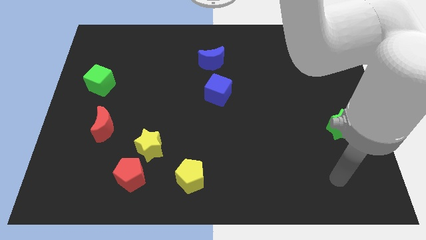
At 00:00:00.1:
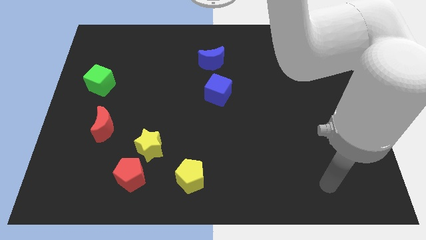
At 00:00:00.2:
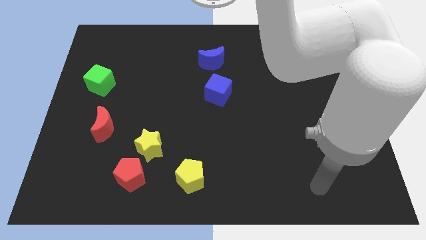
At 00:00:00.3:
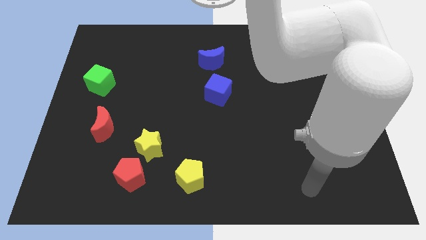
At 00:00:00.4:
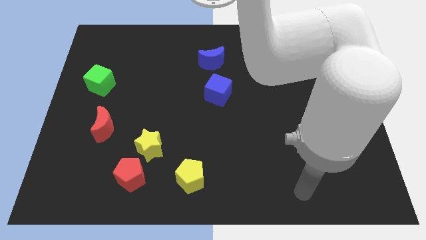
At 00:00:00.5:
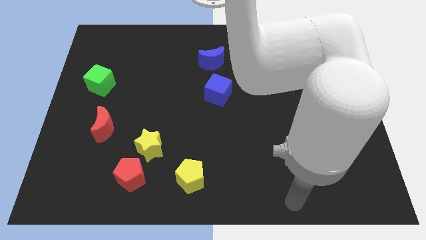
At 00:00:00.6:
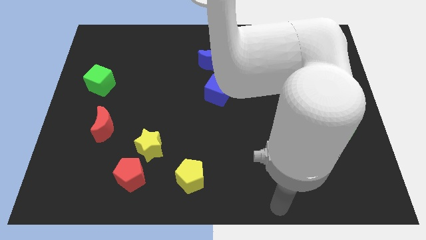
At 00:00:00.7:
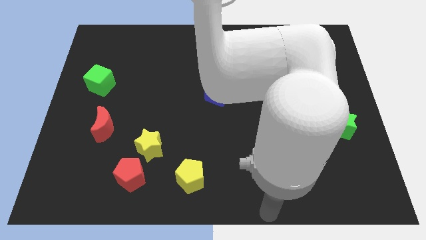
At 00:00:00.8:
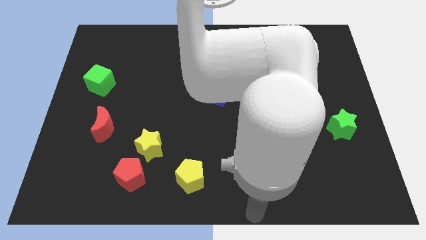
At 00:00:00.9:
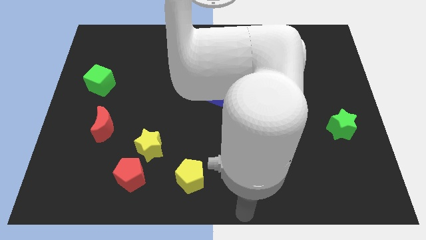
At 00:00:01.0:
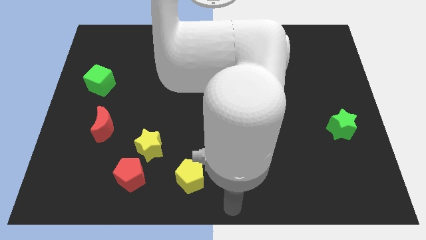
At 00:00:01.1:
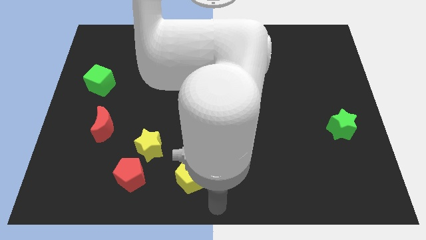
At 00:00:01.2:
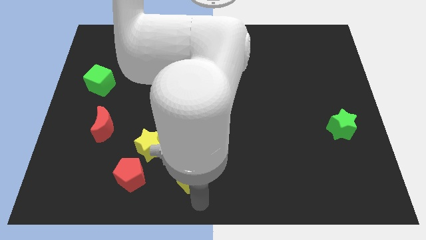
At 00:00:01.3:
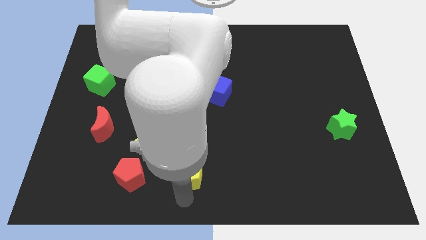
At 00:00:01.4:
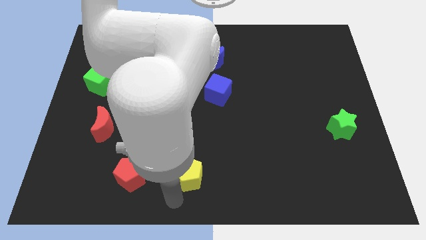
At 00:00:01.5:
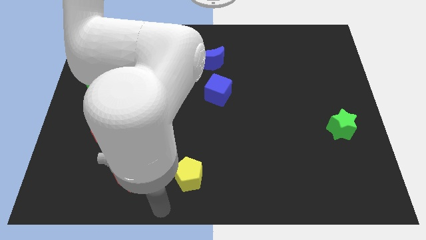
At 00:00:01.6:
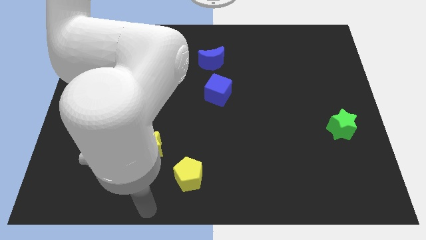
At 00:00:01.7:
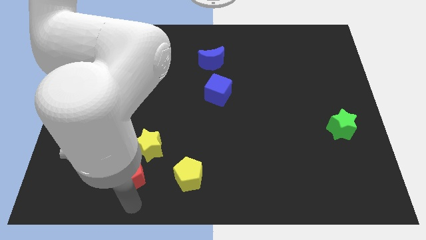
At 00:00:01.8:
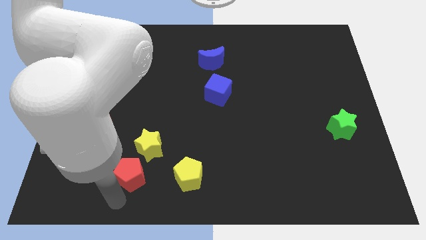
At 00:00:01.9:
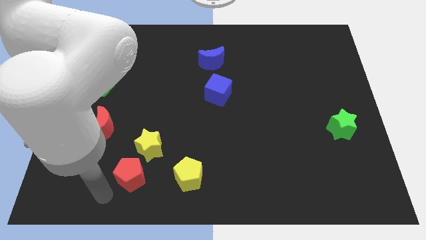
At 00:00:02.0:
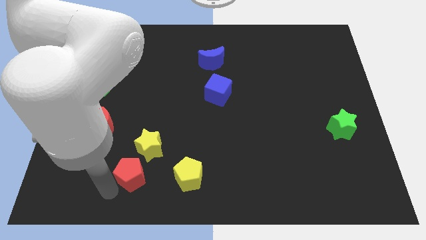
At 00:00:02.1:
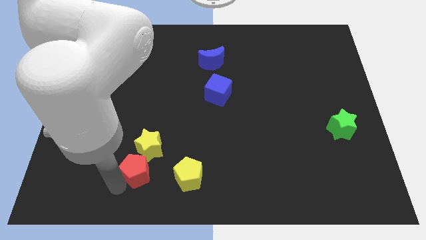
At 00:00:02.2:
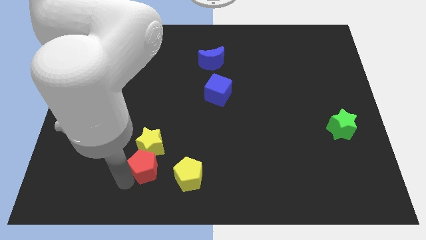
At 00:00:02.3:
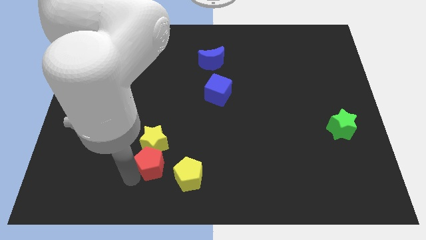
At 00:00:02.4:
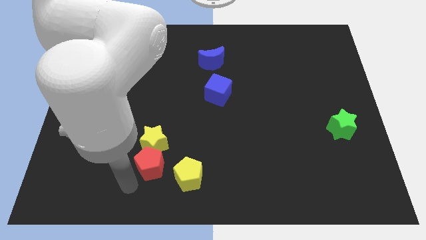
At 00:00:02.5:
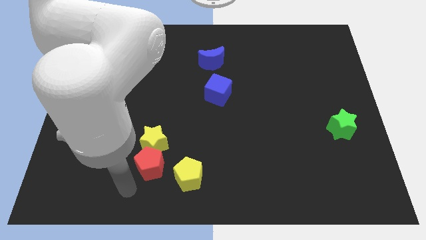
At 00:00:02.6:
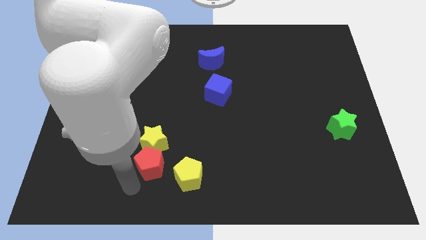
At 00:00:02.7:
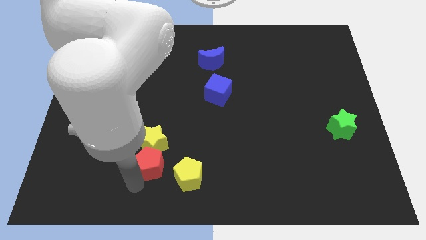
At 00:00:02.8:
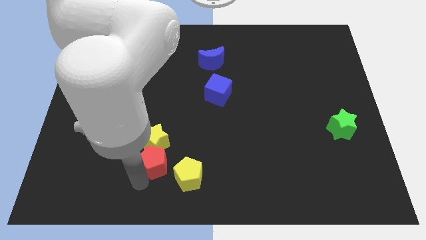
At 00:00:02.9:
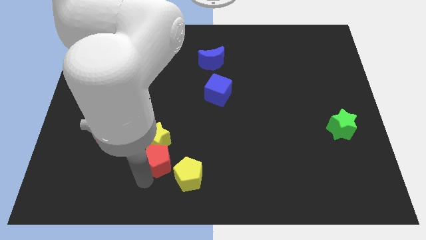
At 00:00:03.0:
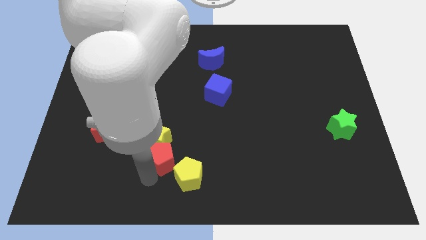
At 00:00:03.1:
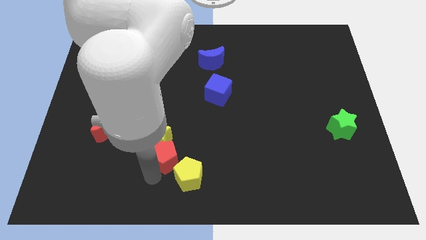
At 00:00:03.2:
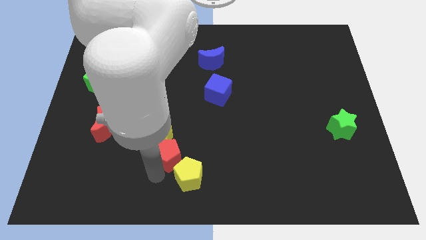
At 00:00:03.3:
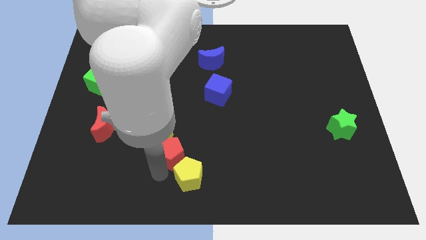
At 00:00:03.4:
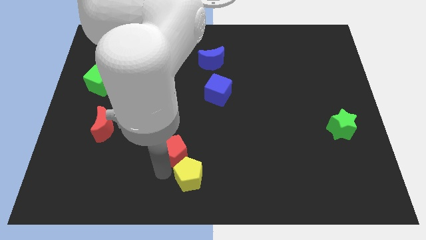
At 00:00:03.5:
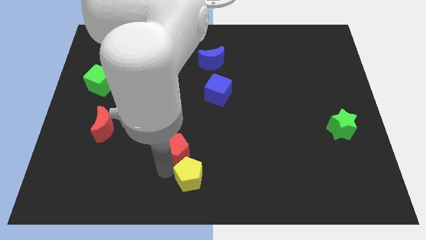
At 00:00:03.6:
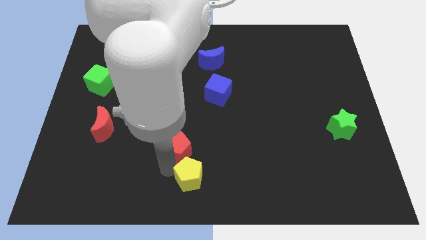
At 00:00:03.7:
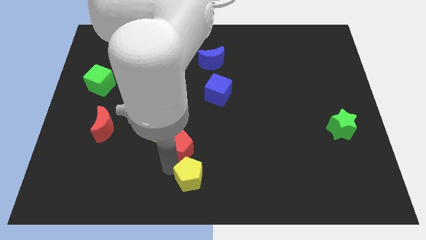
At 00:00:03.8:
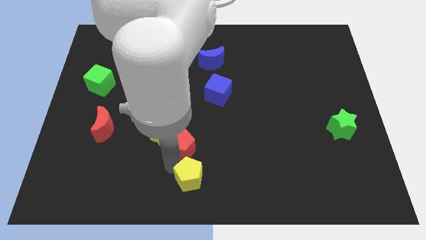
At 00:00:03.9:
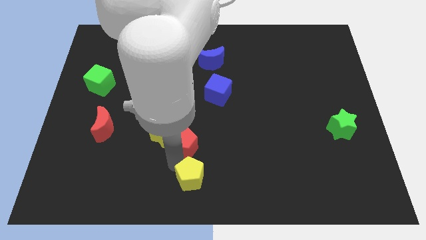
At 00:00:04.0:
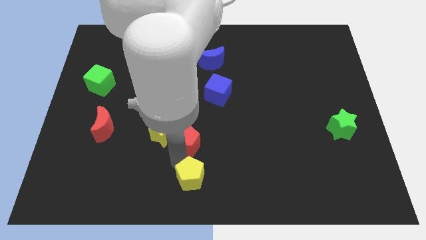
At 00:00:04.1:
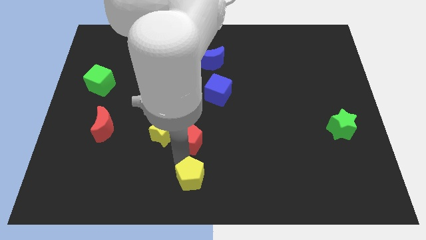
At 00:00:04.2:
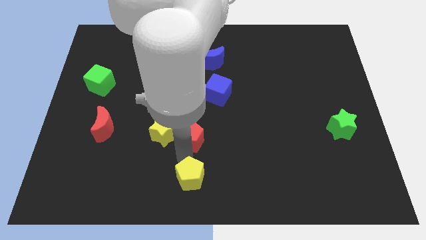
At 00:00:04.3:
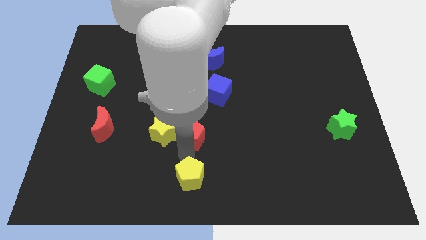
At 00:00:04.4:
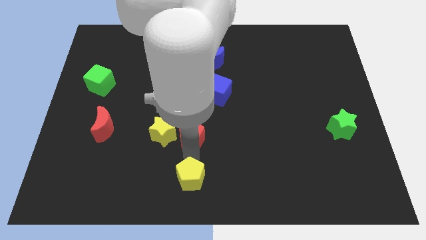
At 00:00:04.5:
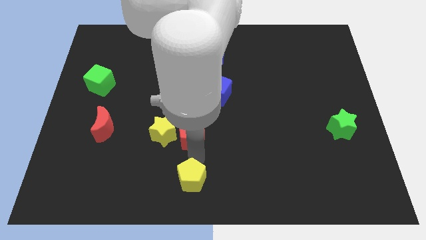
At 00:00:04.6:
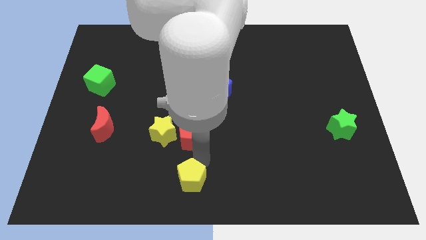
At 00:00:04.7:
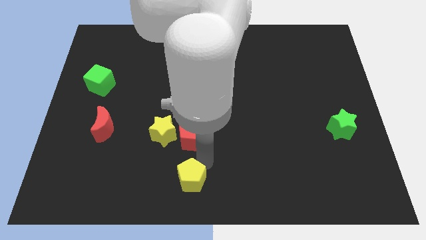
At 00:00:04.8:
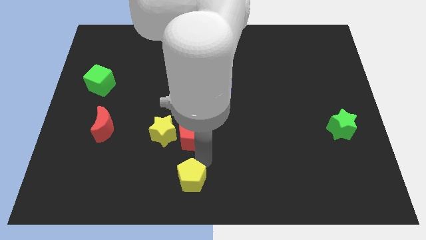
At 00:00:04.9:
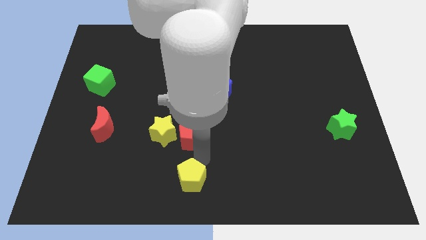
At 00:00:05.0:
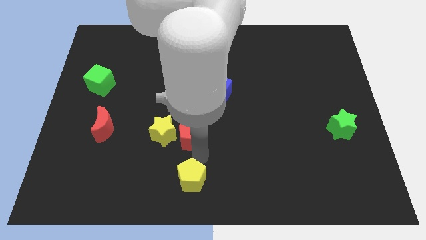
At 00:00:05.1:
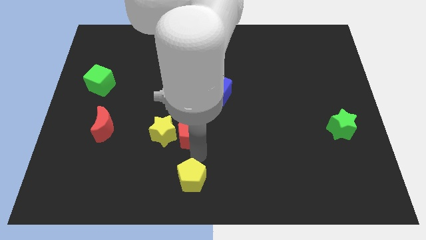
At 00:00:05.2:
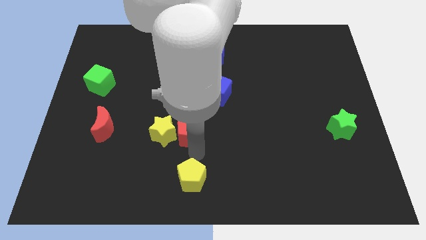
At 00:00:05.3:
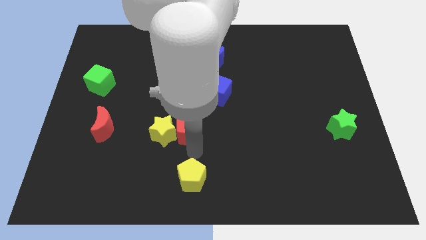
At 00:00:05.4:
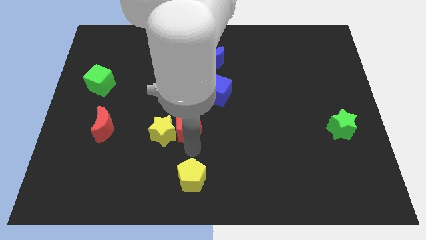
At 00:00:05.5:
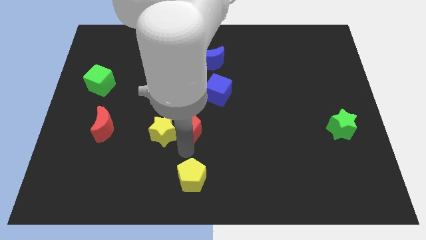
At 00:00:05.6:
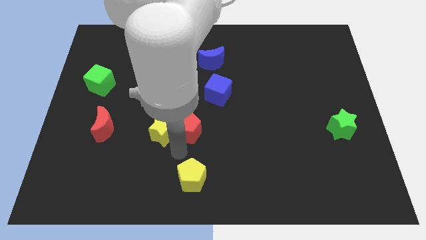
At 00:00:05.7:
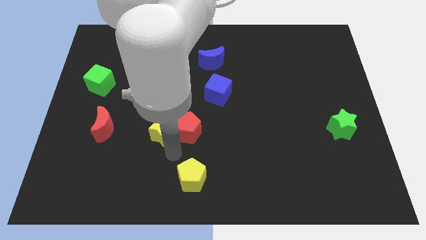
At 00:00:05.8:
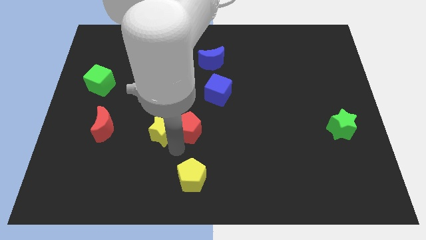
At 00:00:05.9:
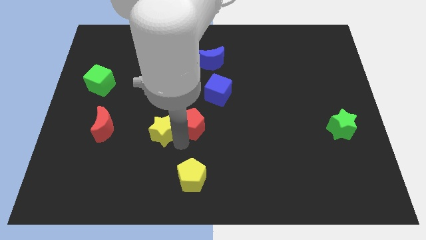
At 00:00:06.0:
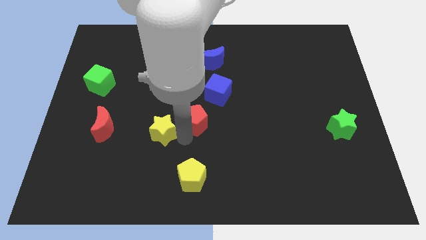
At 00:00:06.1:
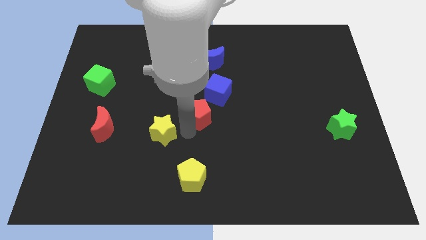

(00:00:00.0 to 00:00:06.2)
move the red pentagon upwards and right

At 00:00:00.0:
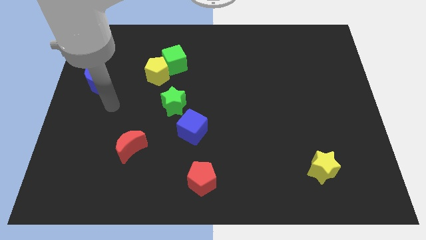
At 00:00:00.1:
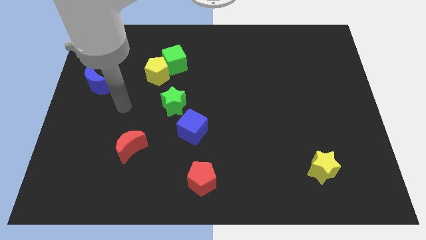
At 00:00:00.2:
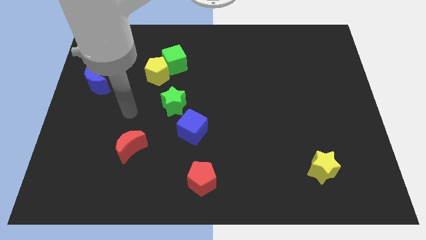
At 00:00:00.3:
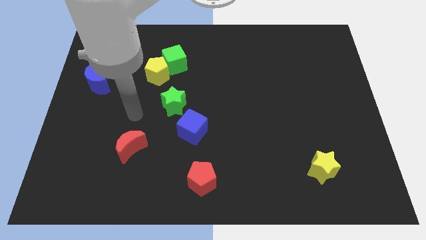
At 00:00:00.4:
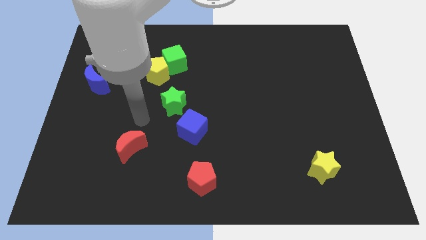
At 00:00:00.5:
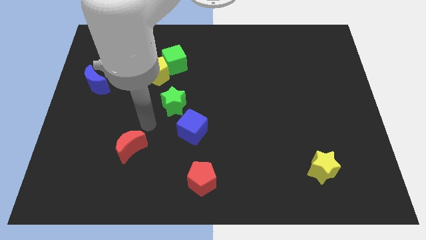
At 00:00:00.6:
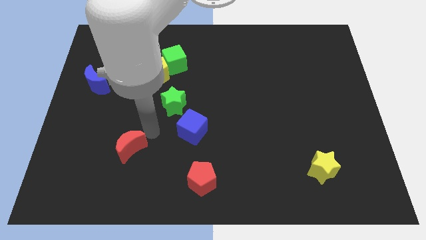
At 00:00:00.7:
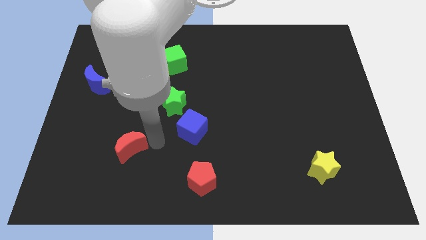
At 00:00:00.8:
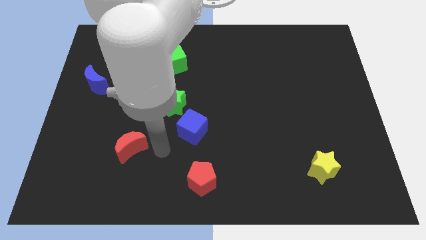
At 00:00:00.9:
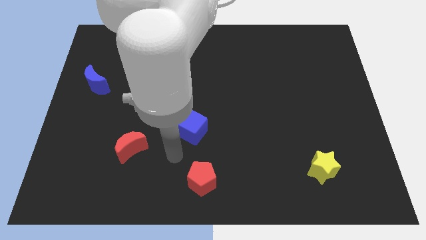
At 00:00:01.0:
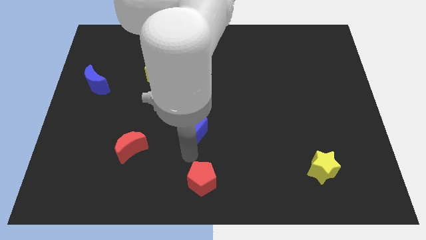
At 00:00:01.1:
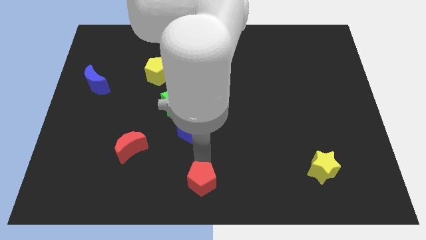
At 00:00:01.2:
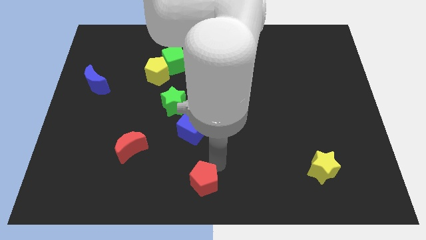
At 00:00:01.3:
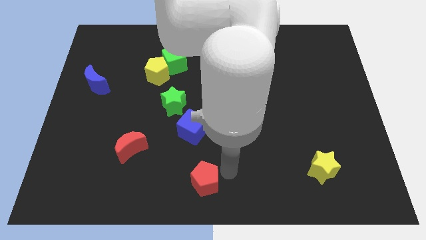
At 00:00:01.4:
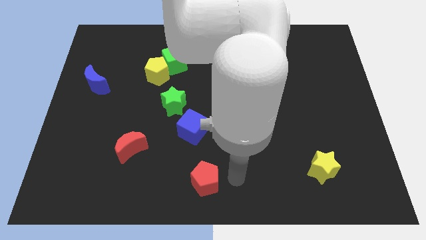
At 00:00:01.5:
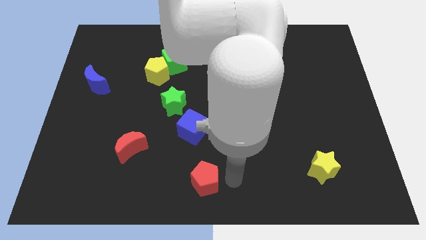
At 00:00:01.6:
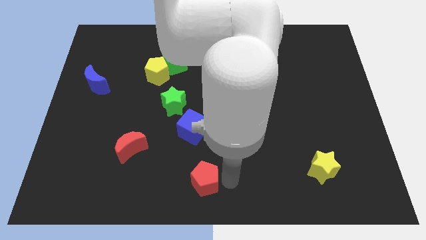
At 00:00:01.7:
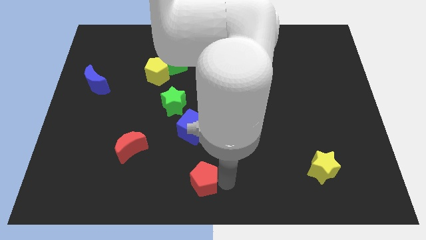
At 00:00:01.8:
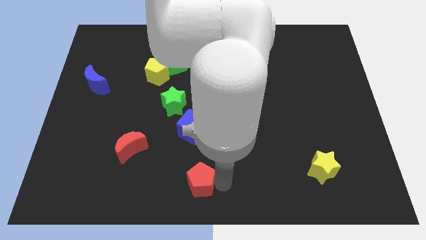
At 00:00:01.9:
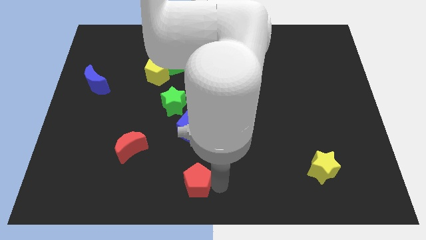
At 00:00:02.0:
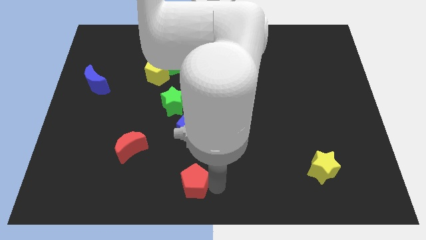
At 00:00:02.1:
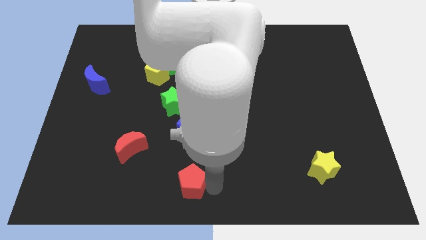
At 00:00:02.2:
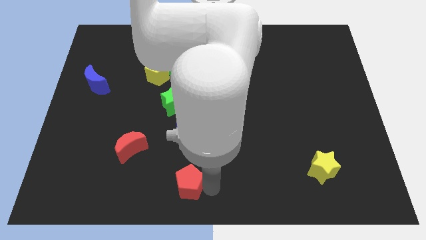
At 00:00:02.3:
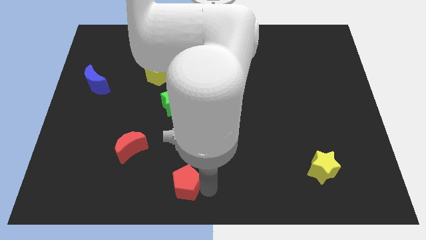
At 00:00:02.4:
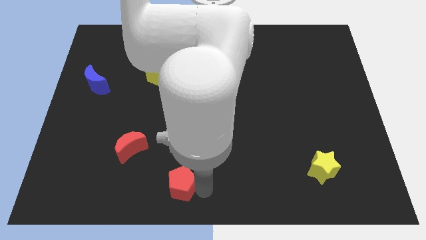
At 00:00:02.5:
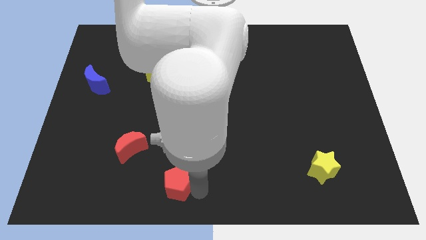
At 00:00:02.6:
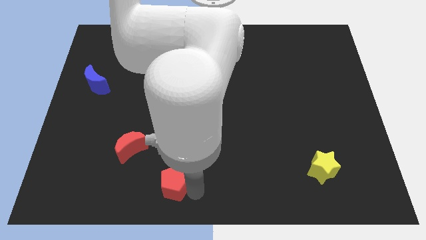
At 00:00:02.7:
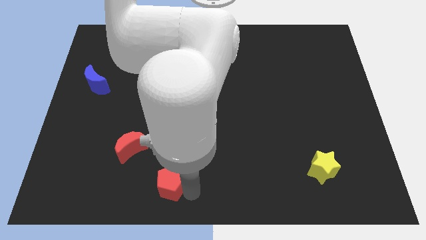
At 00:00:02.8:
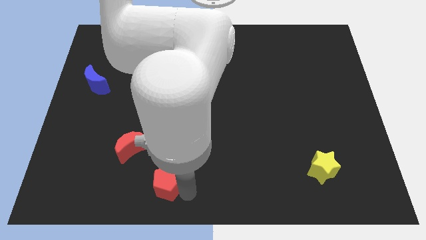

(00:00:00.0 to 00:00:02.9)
move the red pentagon a bit left
